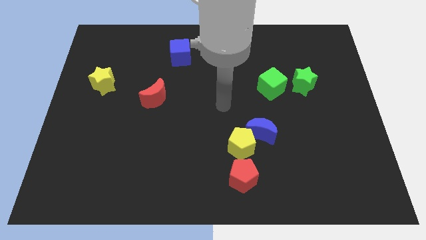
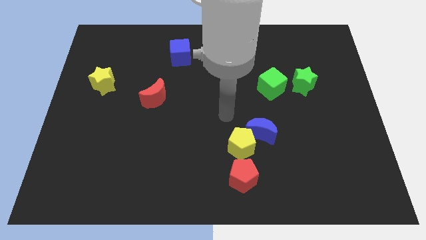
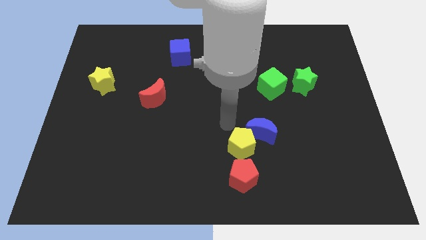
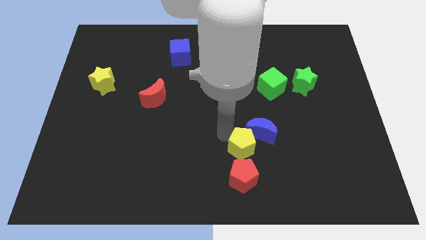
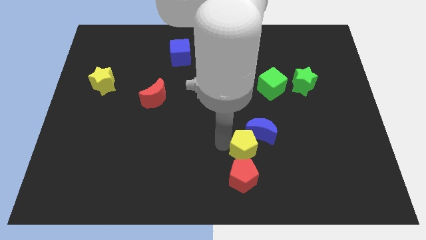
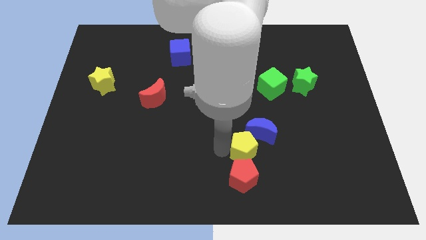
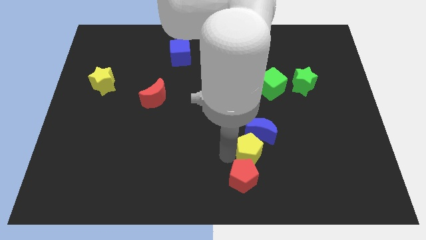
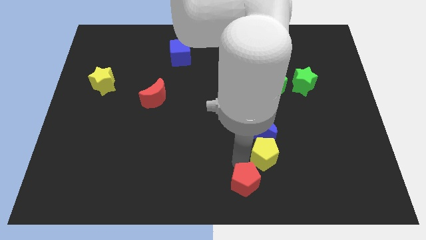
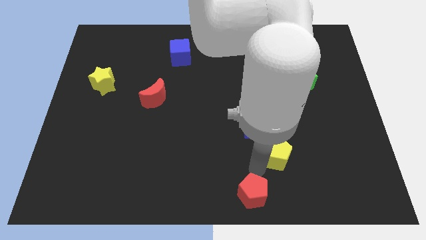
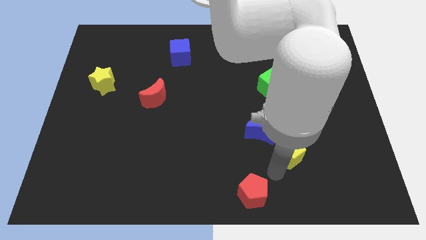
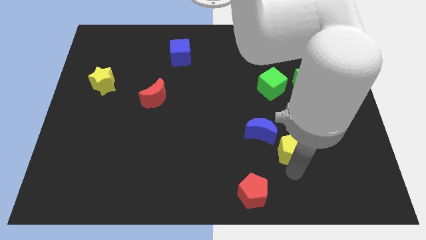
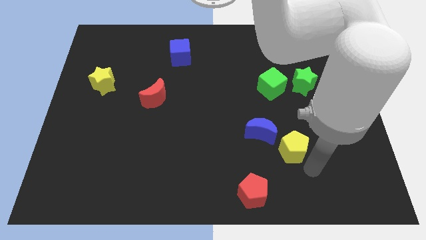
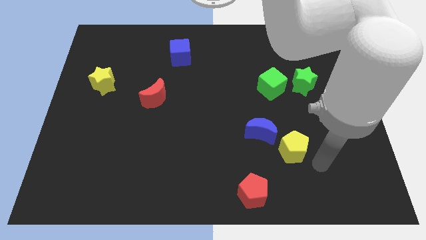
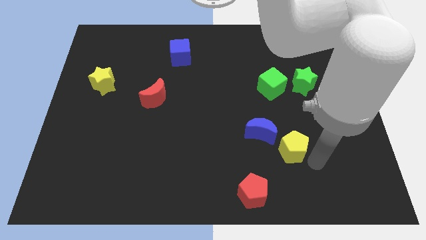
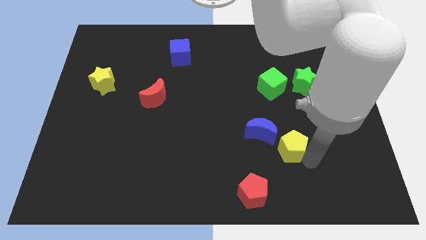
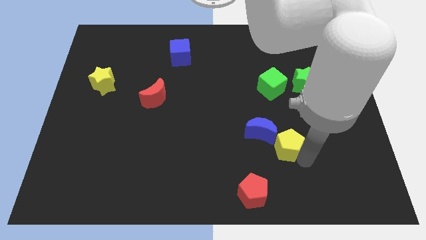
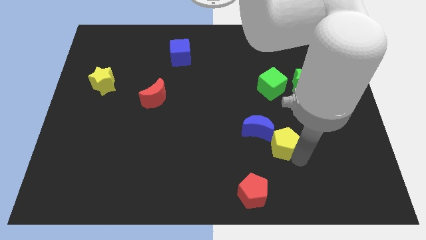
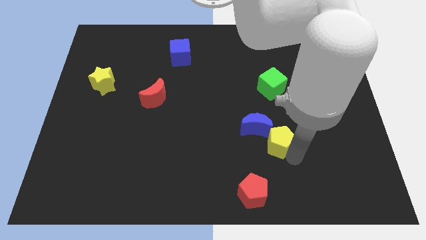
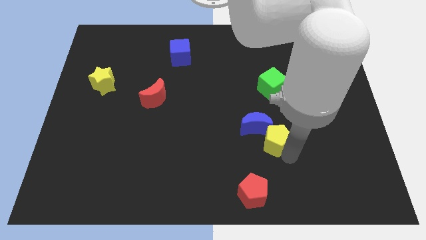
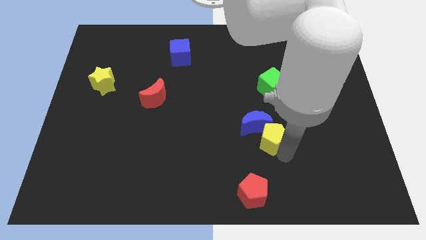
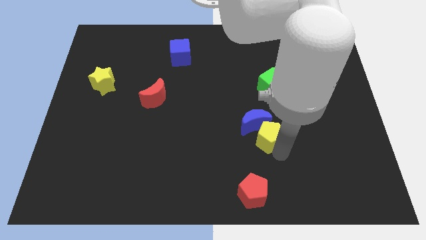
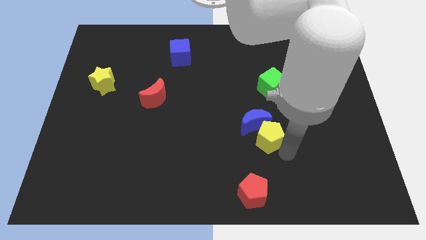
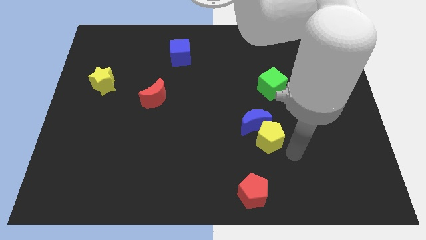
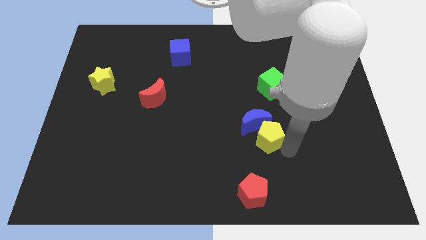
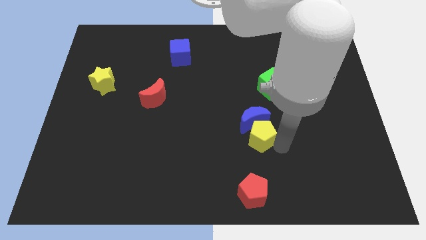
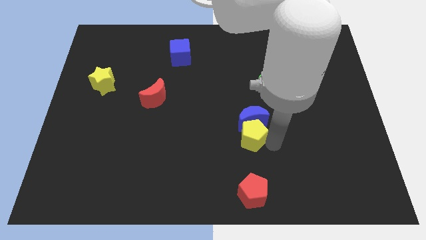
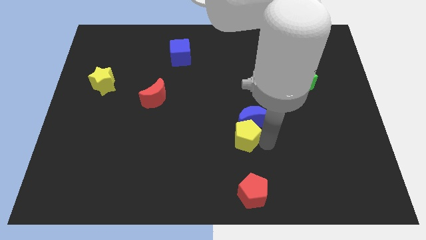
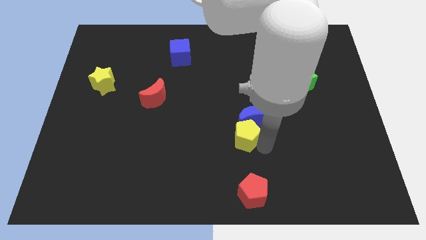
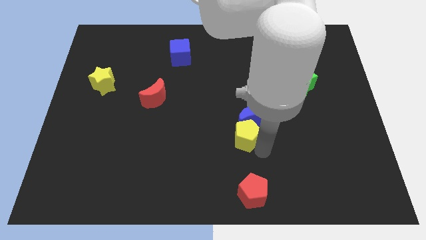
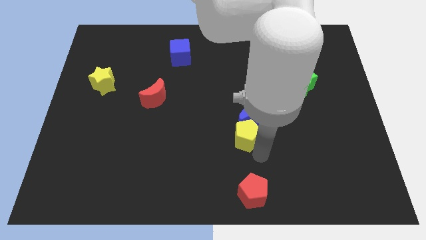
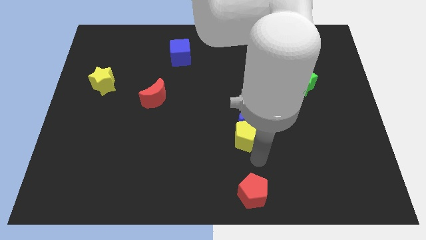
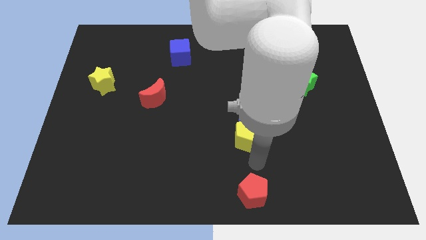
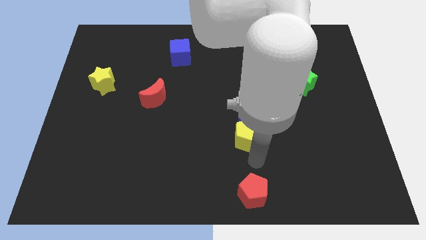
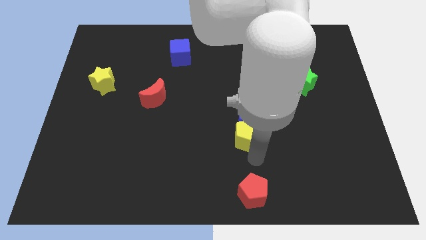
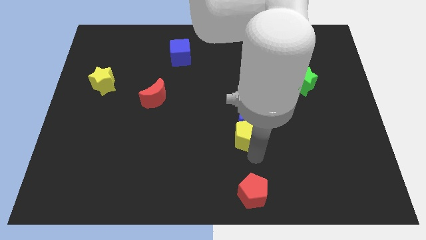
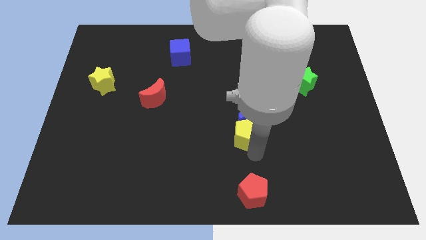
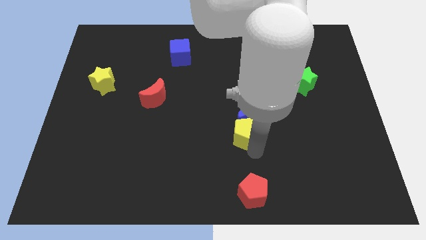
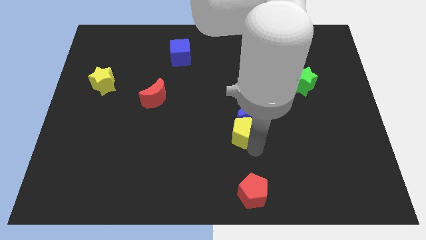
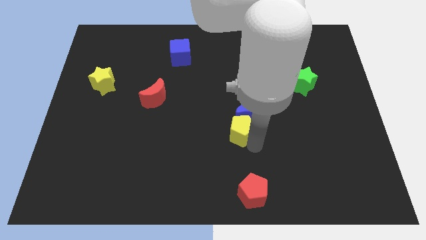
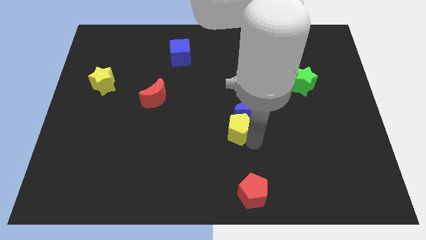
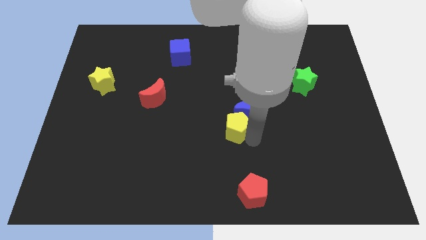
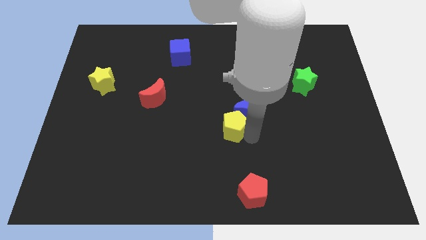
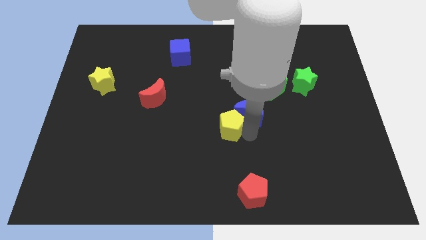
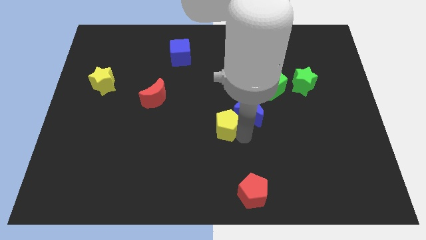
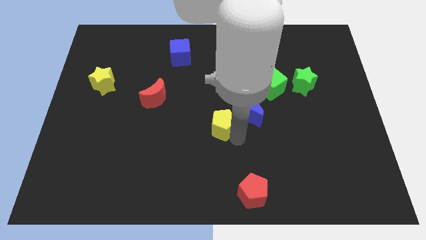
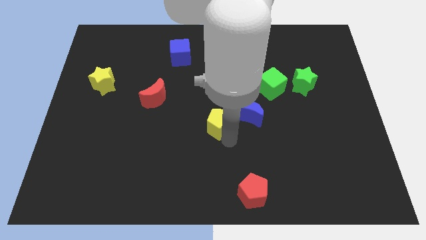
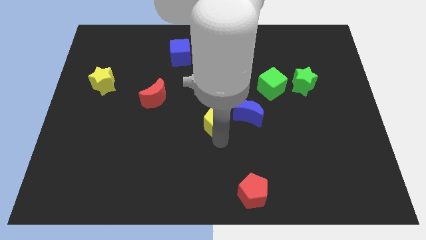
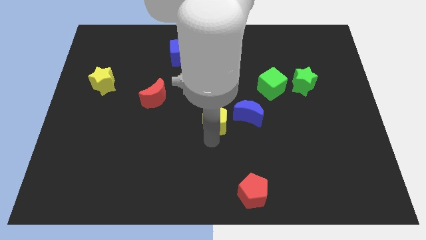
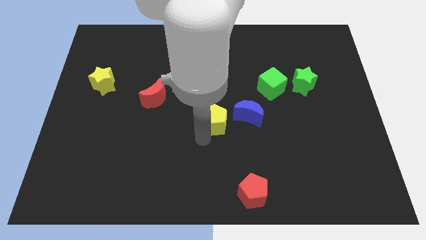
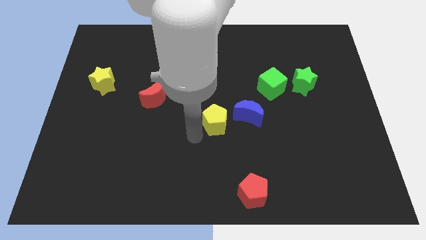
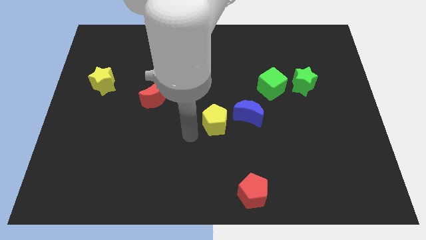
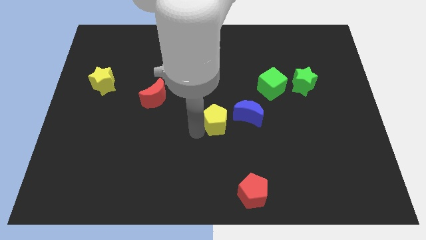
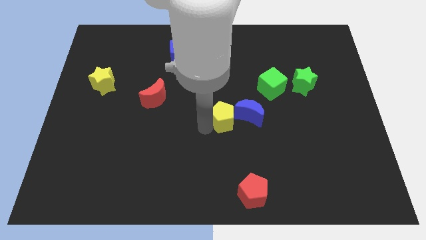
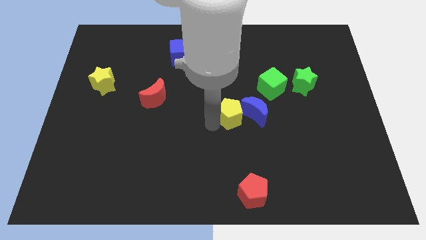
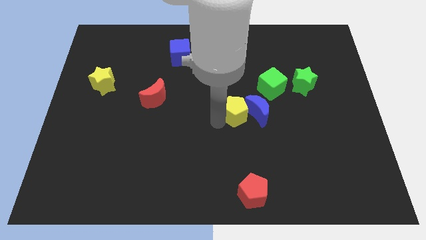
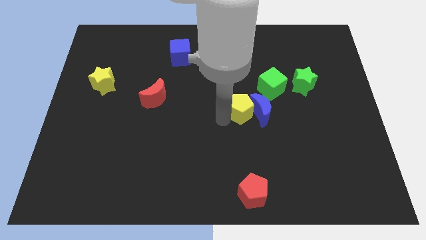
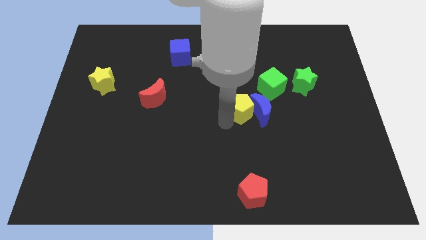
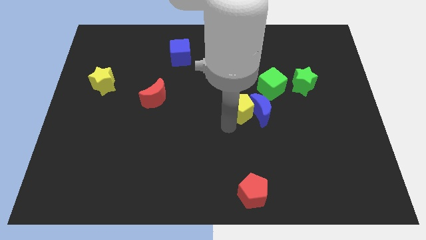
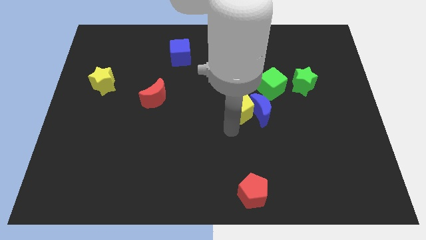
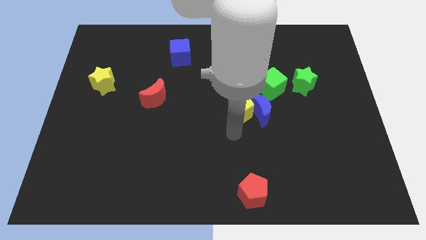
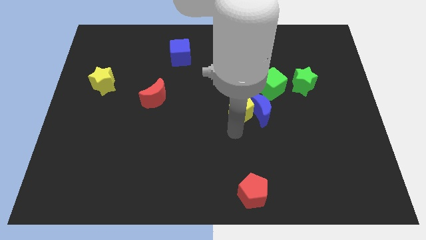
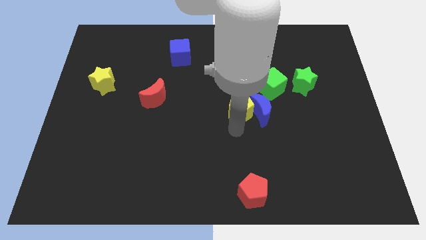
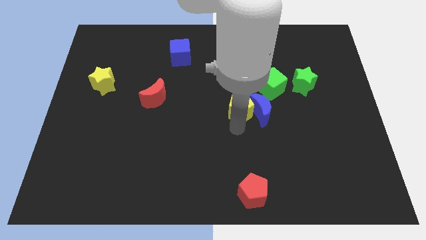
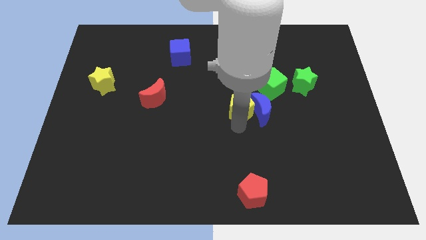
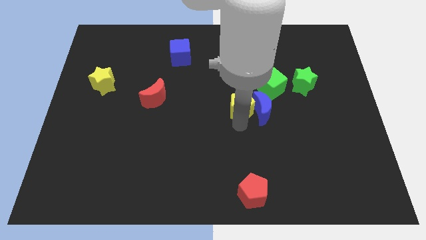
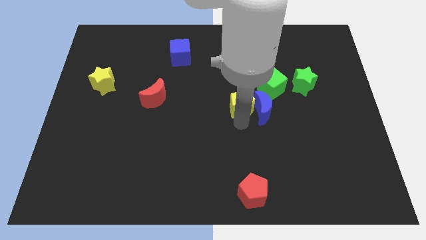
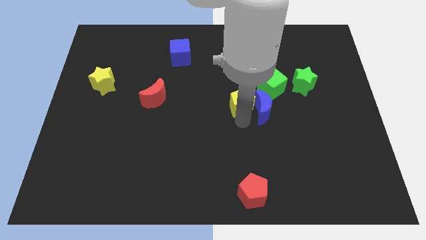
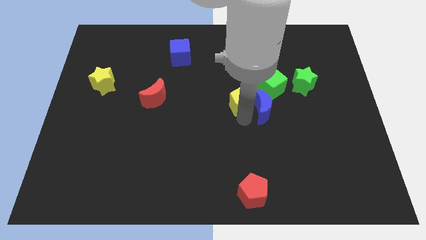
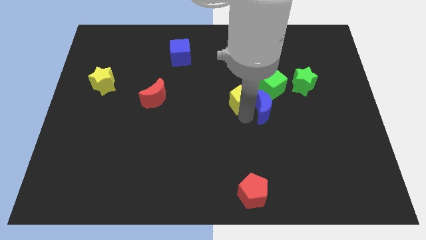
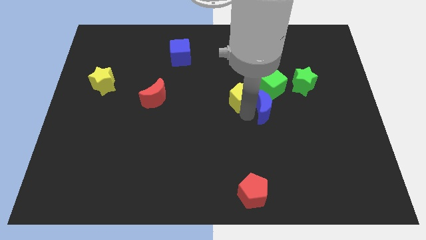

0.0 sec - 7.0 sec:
push the yellow pentagon to the left side of the green cube
